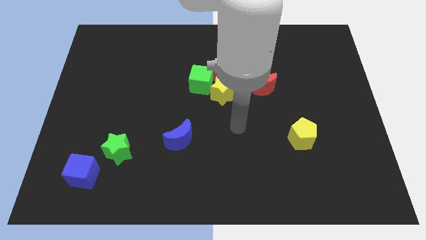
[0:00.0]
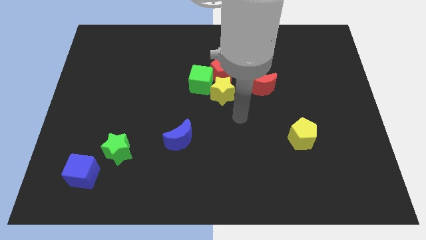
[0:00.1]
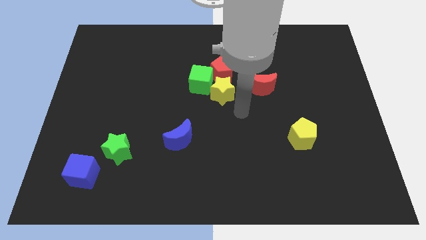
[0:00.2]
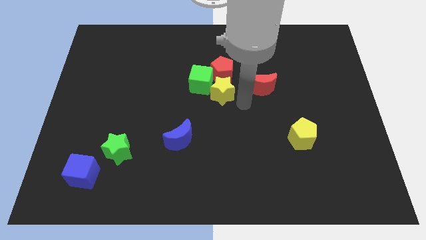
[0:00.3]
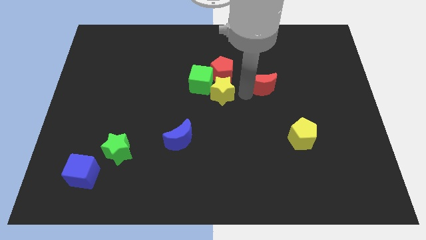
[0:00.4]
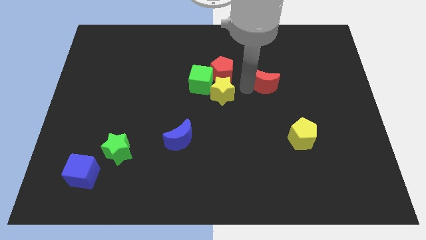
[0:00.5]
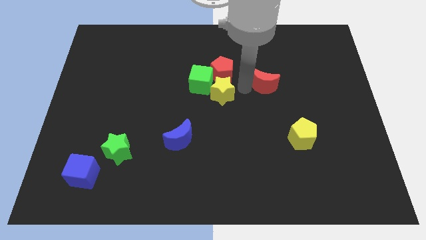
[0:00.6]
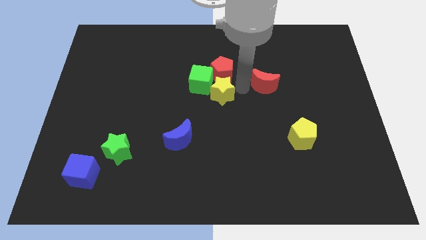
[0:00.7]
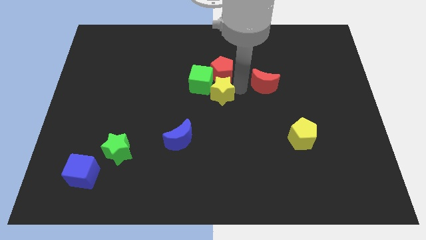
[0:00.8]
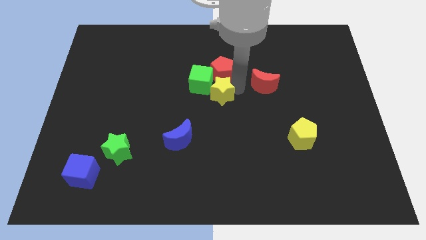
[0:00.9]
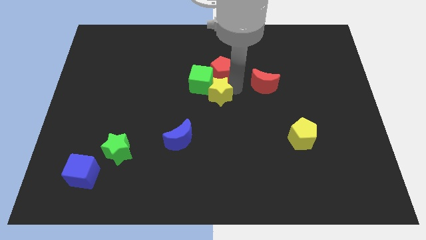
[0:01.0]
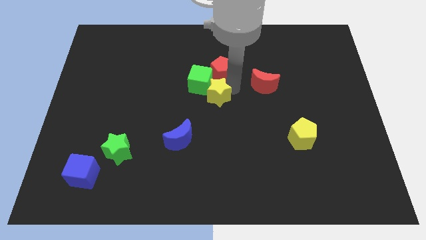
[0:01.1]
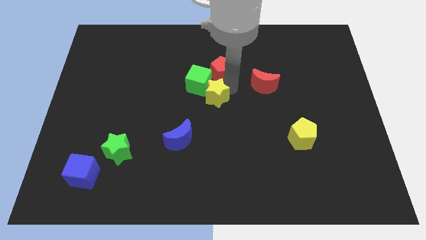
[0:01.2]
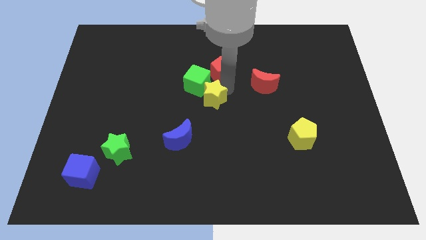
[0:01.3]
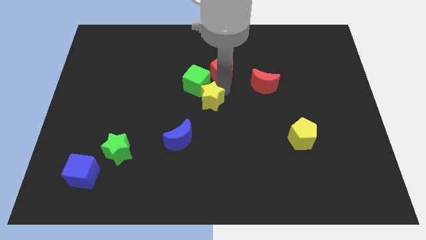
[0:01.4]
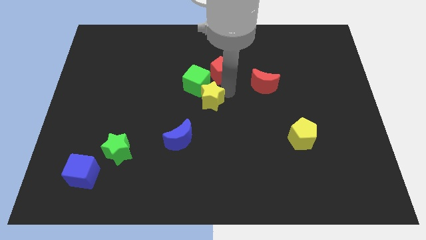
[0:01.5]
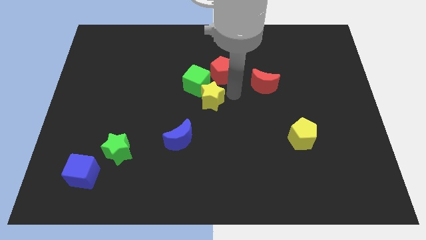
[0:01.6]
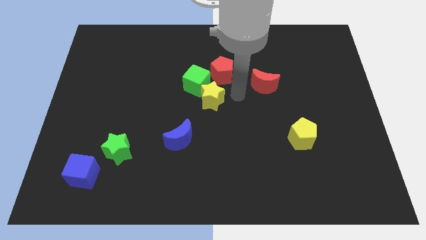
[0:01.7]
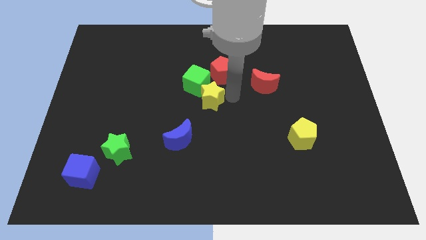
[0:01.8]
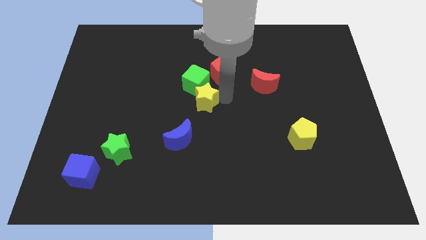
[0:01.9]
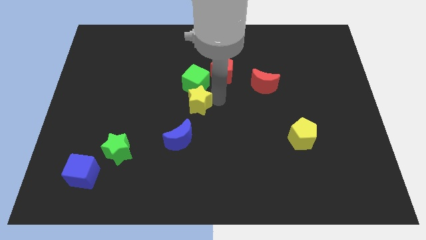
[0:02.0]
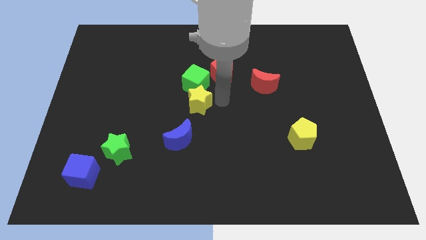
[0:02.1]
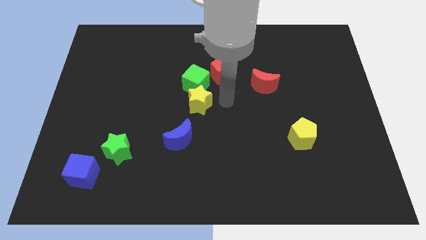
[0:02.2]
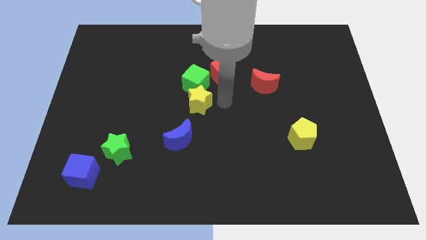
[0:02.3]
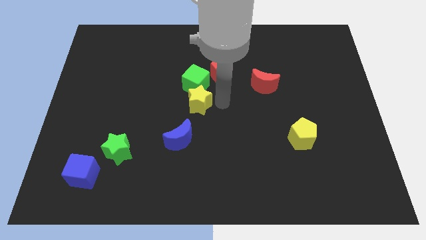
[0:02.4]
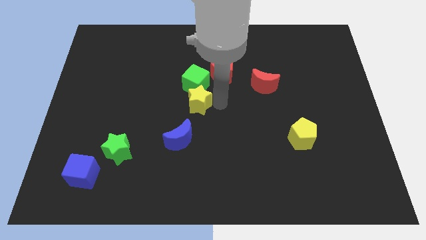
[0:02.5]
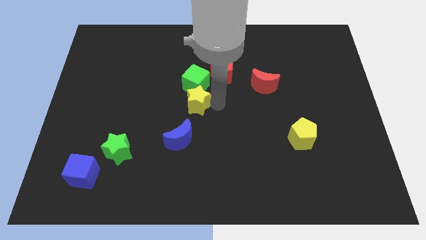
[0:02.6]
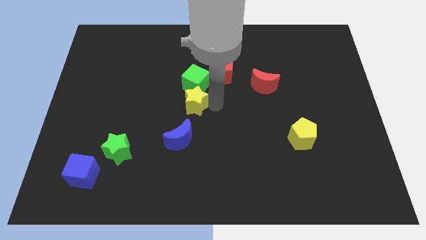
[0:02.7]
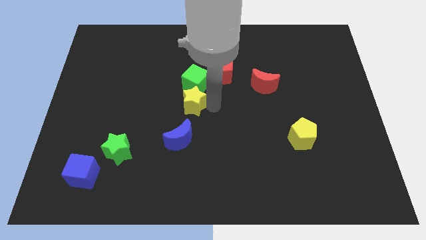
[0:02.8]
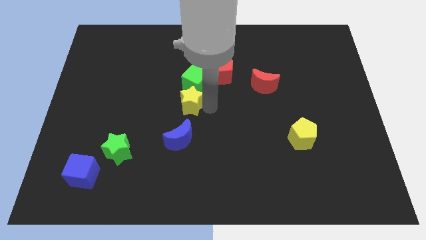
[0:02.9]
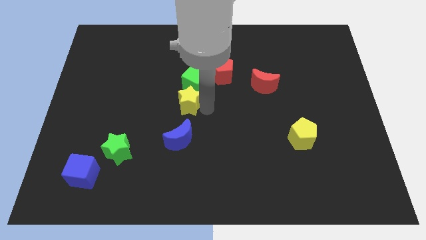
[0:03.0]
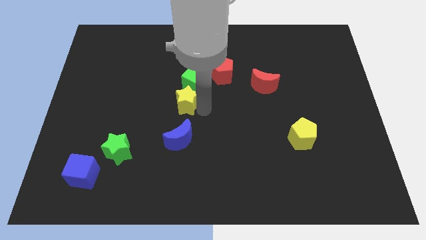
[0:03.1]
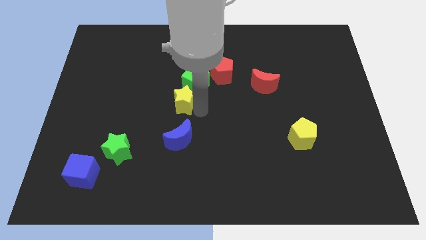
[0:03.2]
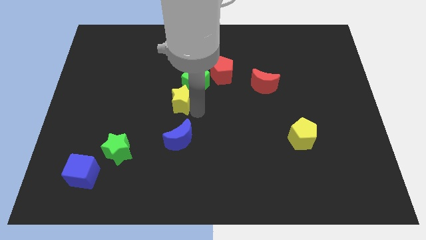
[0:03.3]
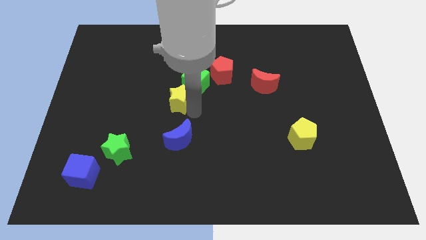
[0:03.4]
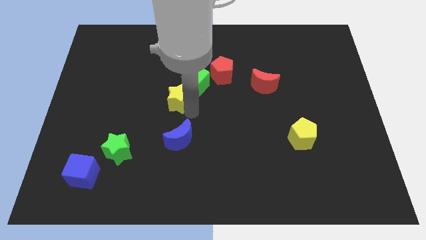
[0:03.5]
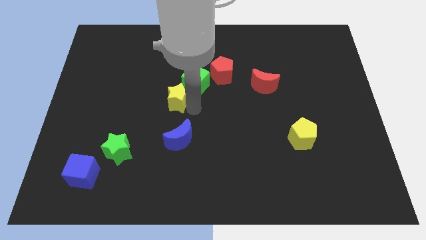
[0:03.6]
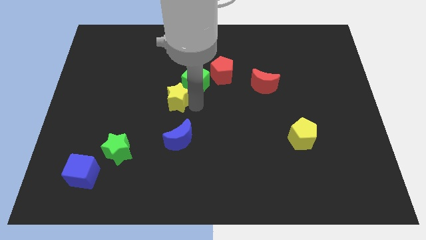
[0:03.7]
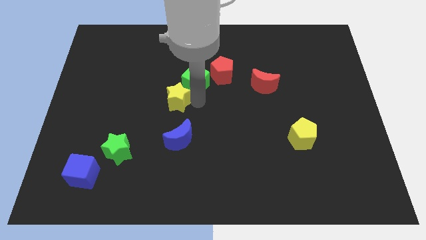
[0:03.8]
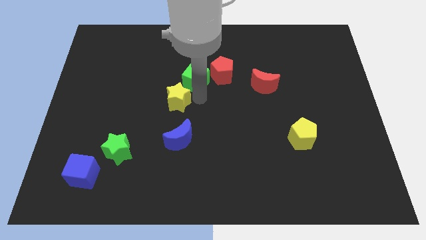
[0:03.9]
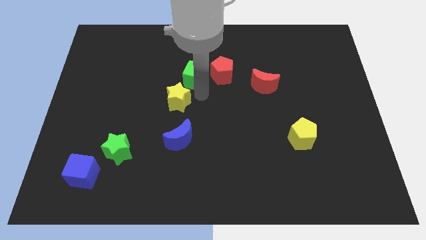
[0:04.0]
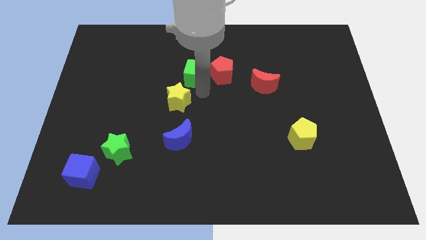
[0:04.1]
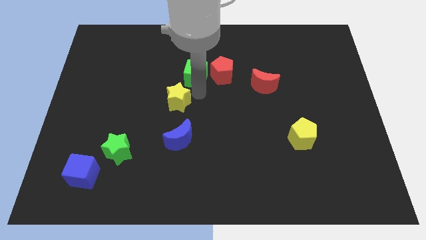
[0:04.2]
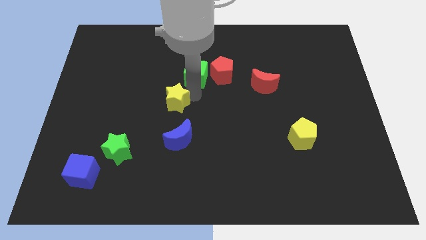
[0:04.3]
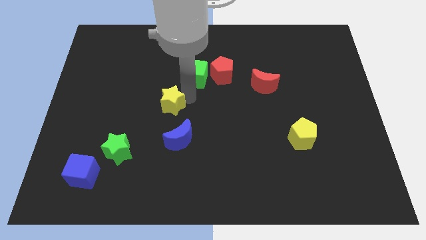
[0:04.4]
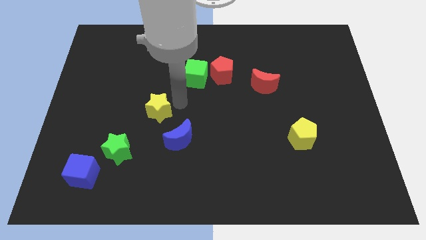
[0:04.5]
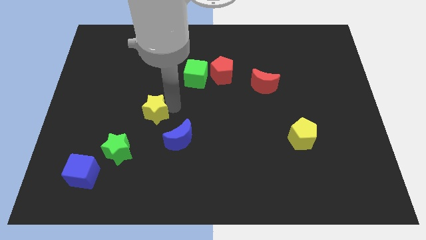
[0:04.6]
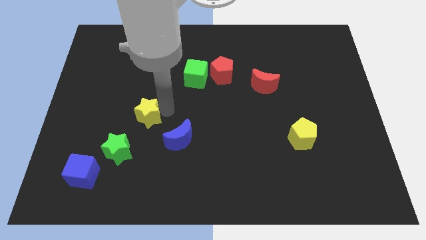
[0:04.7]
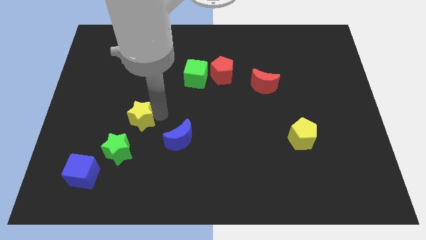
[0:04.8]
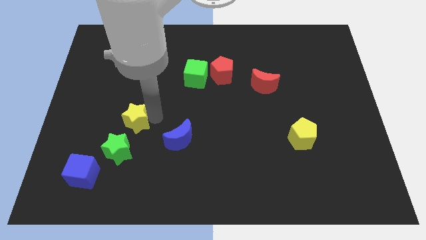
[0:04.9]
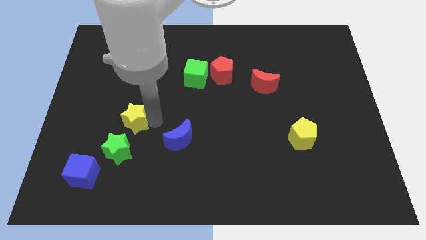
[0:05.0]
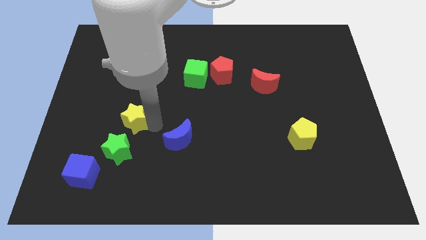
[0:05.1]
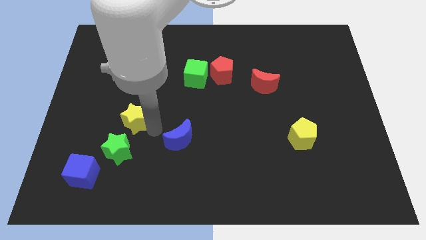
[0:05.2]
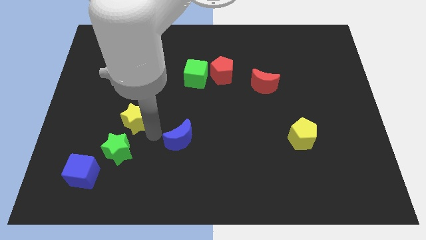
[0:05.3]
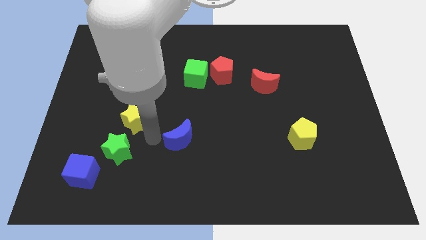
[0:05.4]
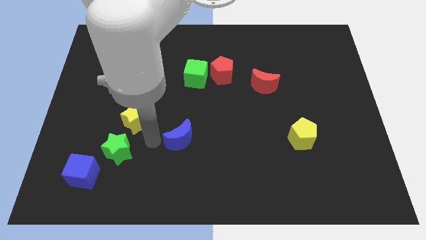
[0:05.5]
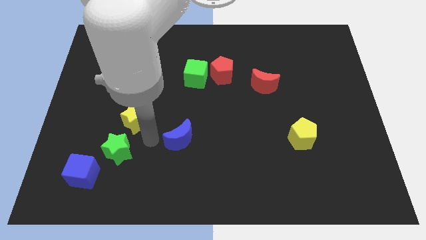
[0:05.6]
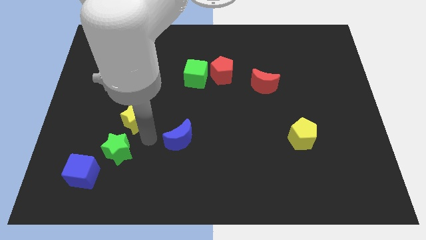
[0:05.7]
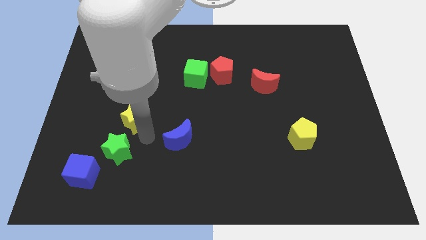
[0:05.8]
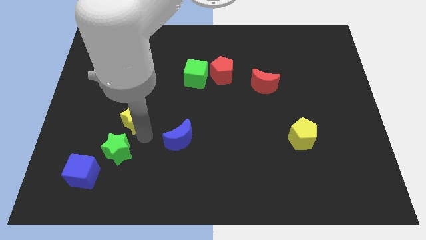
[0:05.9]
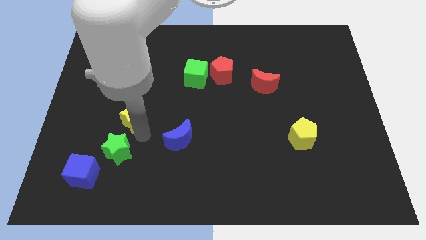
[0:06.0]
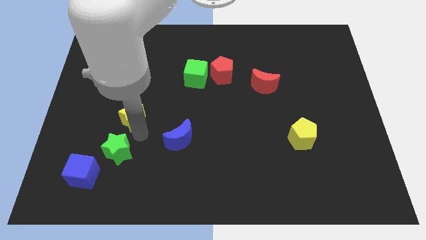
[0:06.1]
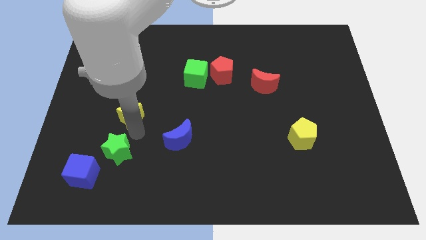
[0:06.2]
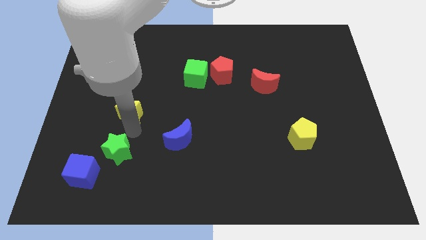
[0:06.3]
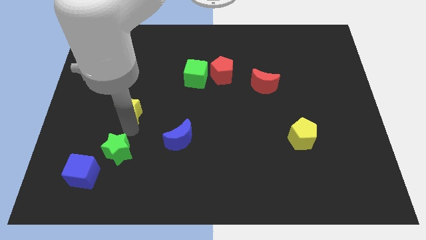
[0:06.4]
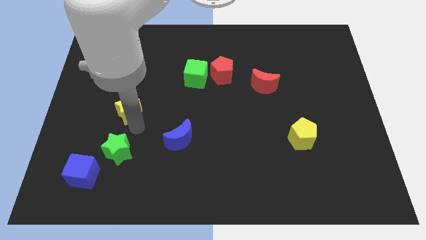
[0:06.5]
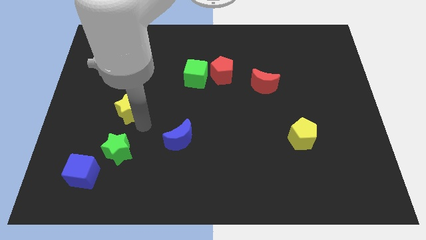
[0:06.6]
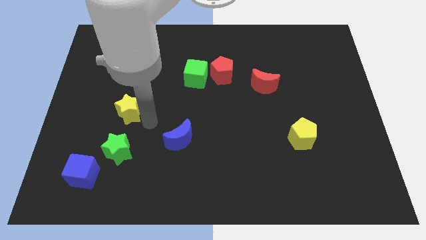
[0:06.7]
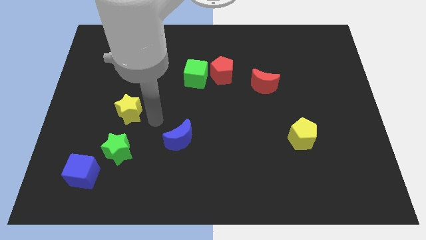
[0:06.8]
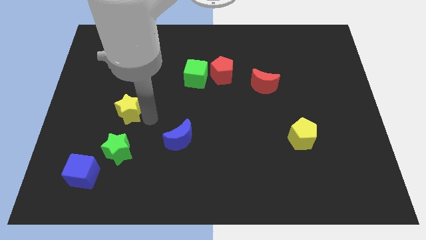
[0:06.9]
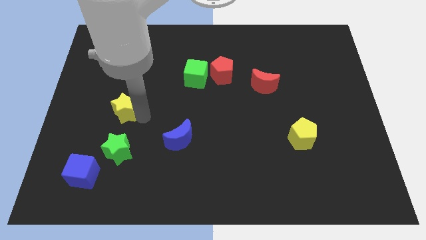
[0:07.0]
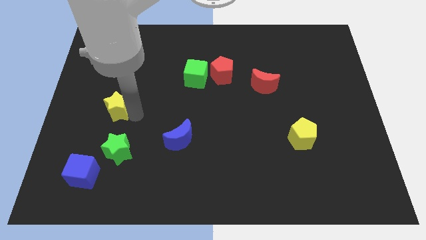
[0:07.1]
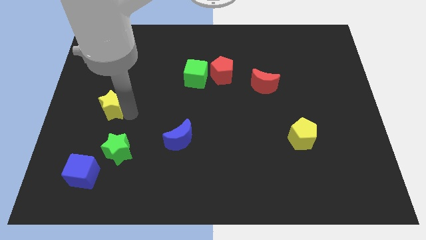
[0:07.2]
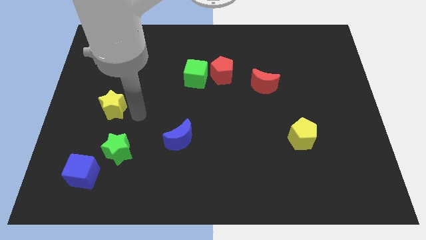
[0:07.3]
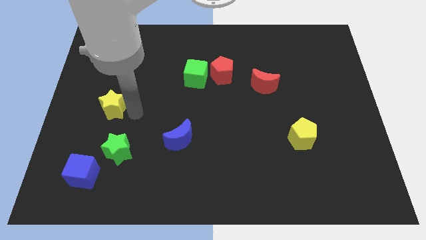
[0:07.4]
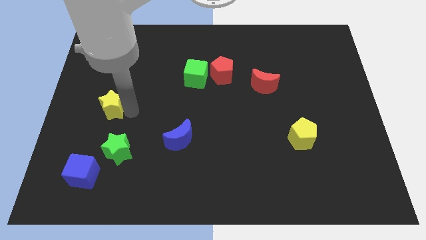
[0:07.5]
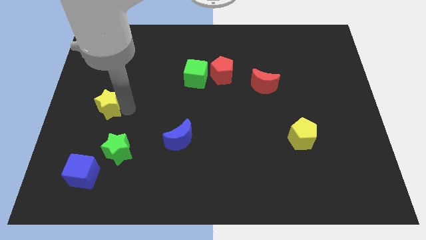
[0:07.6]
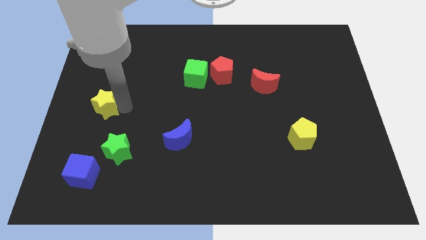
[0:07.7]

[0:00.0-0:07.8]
slide the yellow star to the left side
